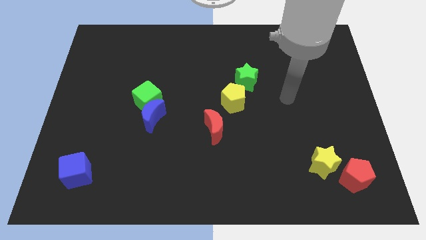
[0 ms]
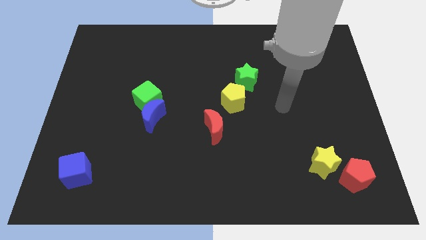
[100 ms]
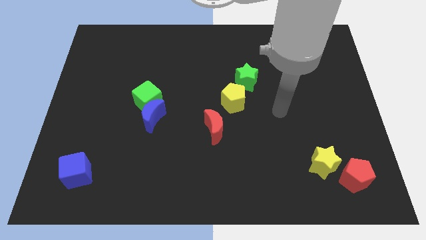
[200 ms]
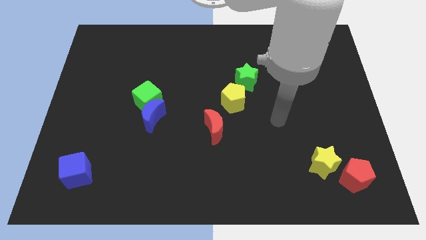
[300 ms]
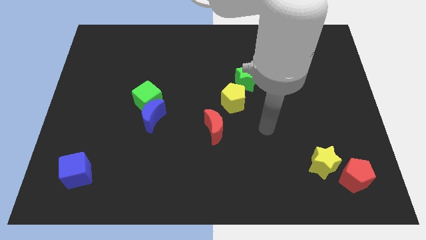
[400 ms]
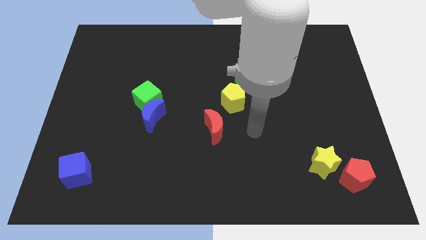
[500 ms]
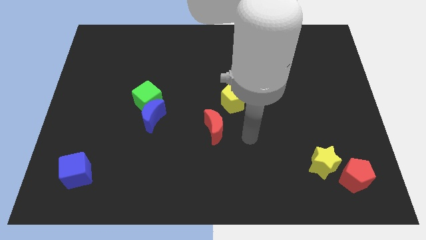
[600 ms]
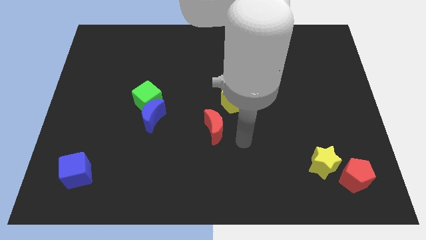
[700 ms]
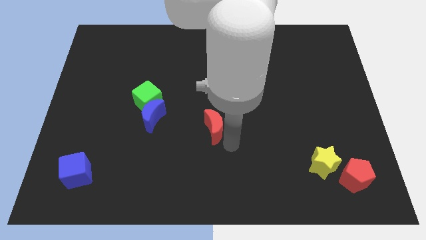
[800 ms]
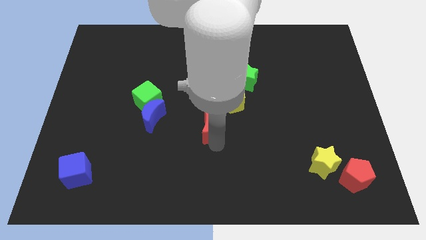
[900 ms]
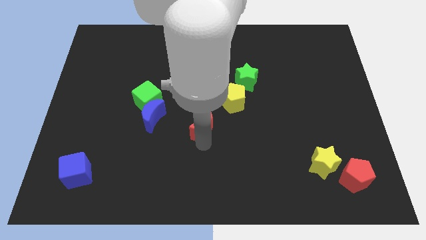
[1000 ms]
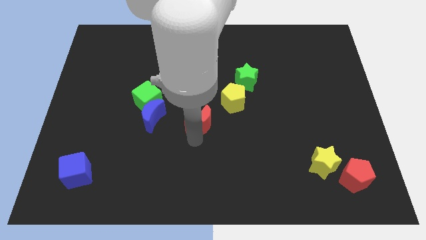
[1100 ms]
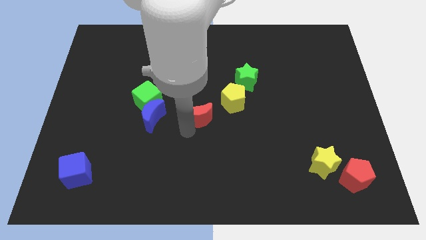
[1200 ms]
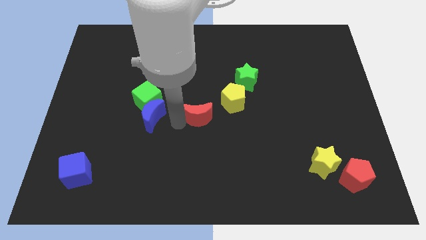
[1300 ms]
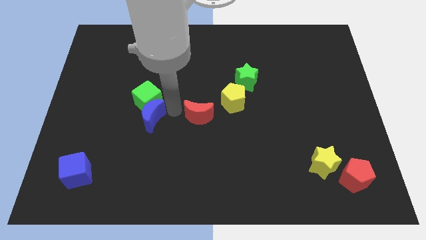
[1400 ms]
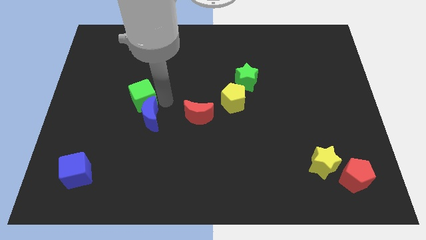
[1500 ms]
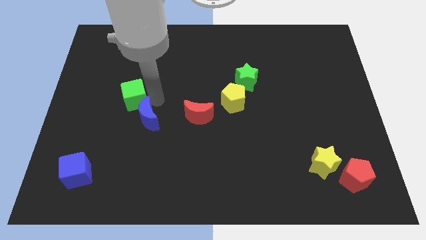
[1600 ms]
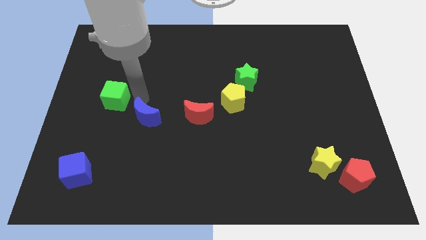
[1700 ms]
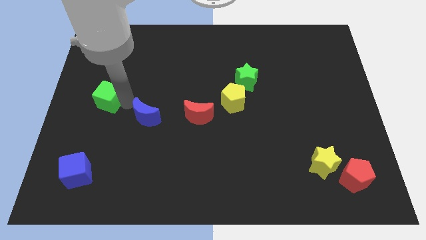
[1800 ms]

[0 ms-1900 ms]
move the blue moon away from the green cube

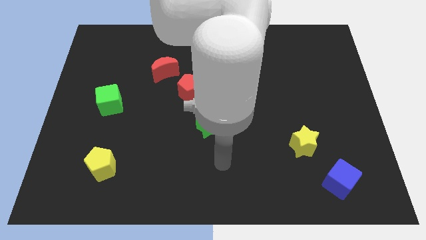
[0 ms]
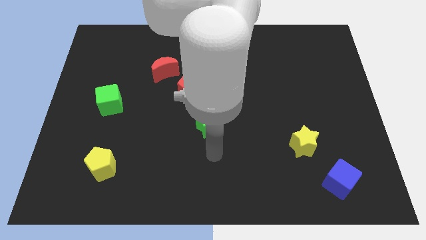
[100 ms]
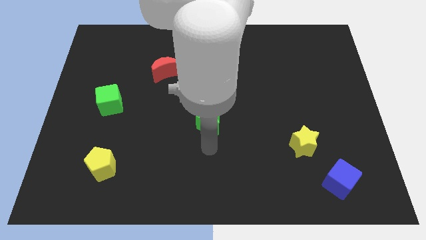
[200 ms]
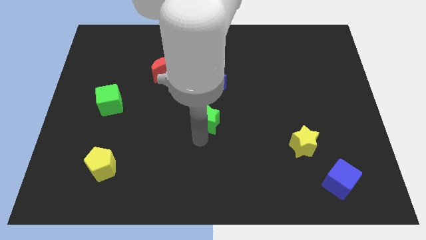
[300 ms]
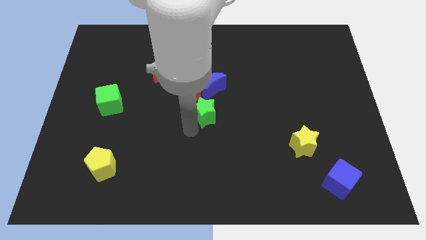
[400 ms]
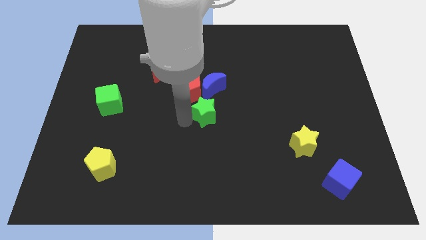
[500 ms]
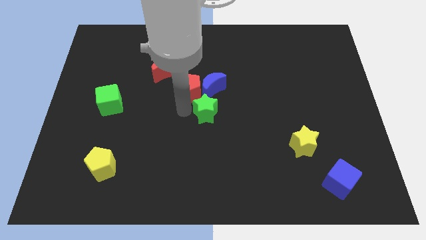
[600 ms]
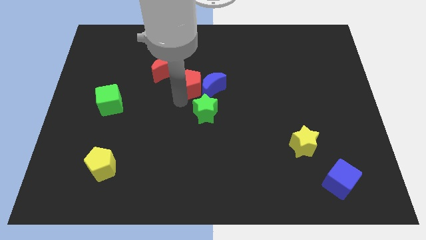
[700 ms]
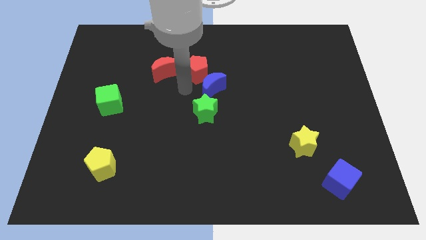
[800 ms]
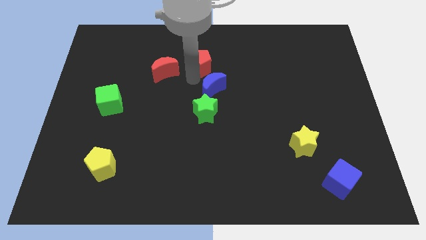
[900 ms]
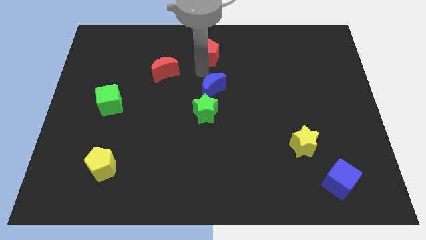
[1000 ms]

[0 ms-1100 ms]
pull the blue moon apart from the red pentagon

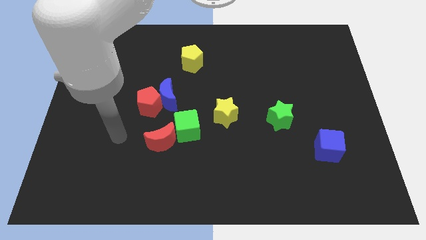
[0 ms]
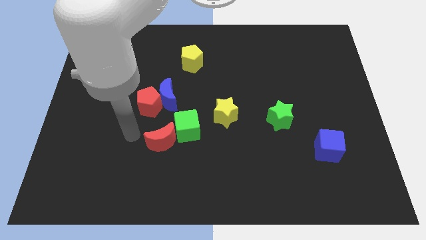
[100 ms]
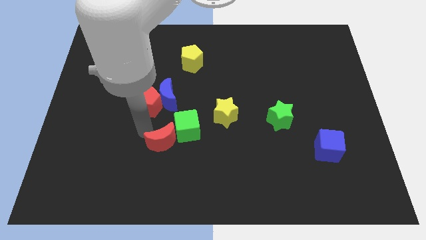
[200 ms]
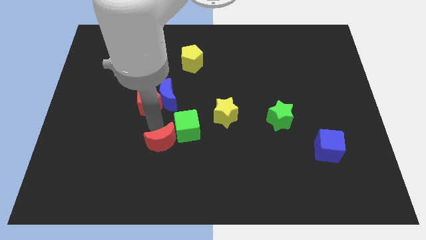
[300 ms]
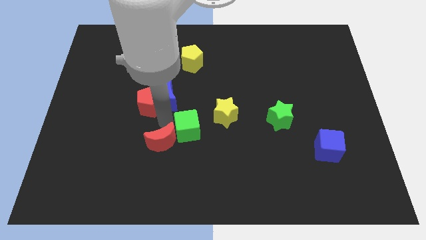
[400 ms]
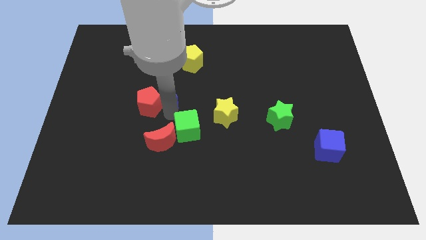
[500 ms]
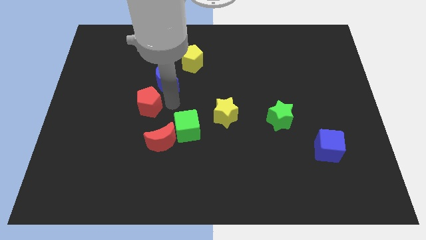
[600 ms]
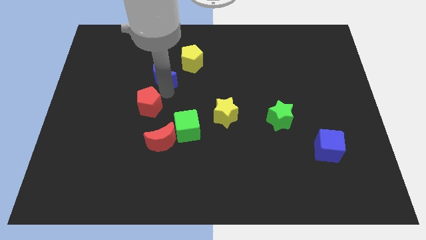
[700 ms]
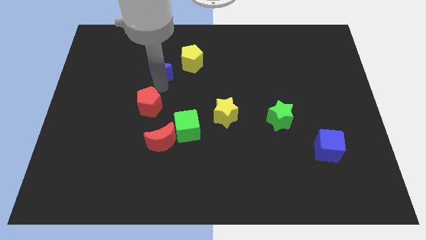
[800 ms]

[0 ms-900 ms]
move the red pentagon away from the blue moon

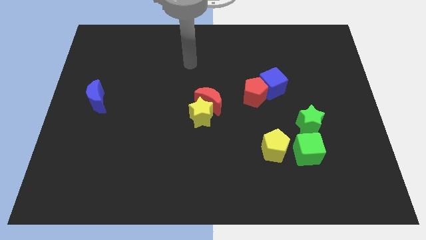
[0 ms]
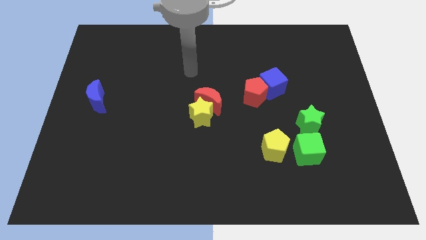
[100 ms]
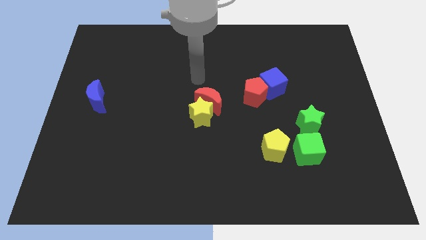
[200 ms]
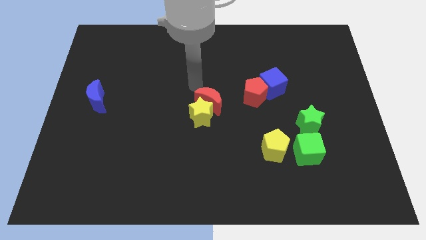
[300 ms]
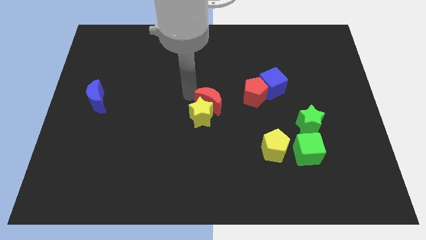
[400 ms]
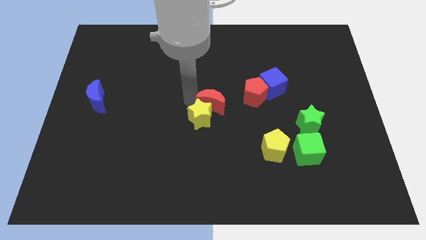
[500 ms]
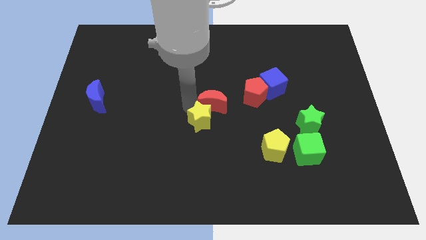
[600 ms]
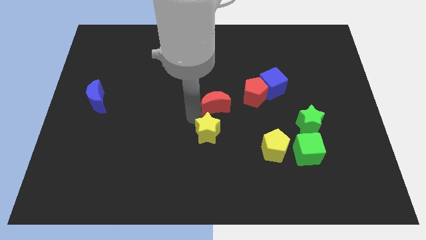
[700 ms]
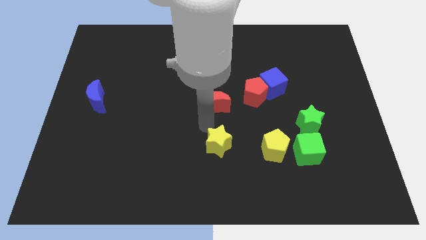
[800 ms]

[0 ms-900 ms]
move the red moon away from the yellow star

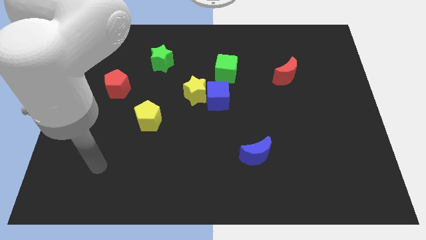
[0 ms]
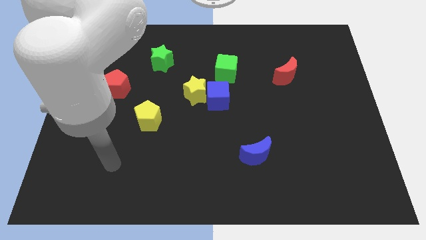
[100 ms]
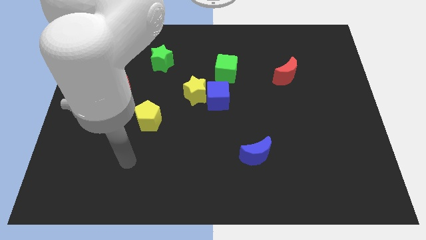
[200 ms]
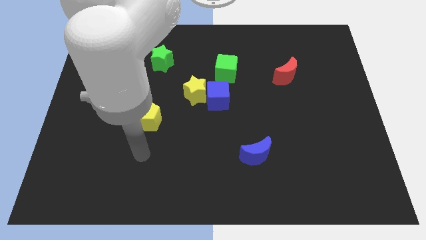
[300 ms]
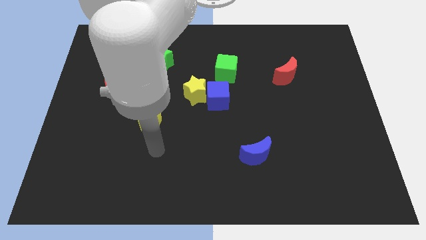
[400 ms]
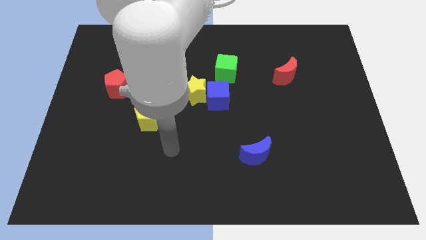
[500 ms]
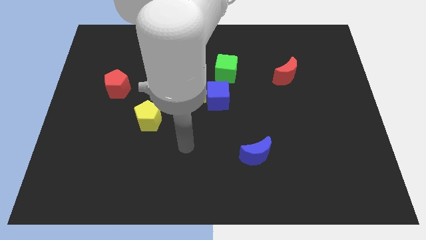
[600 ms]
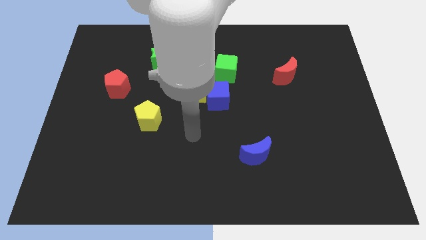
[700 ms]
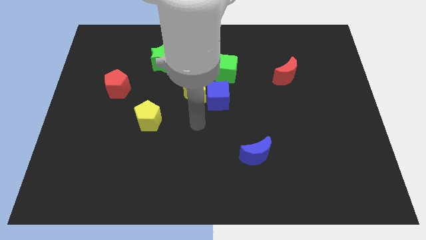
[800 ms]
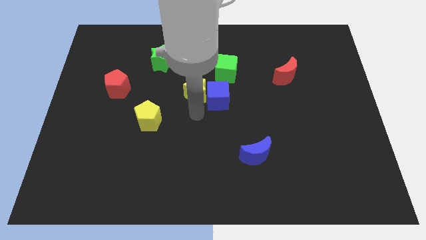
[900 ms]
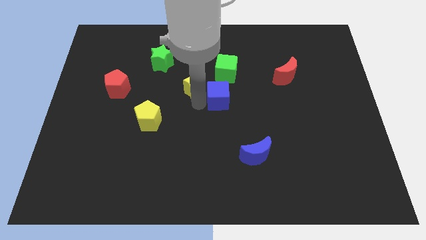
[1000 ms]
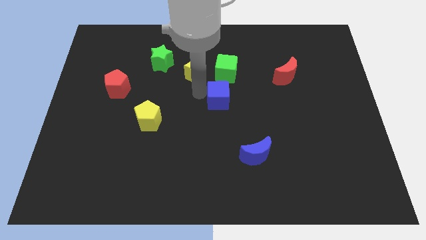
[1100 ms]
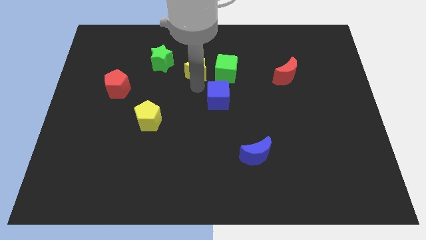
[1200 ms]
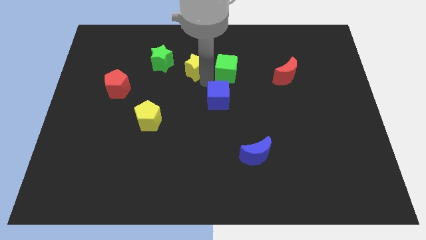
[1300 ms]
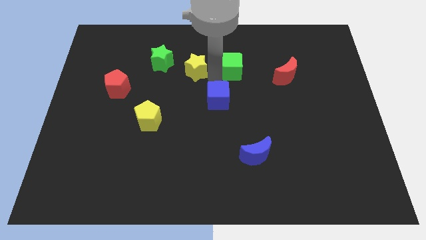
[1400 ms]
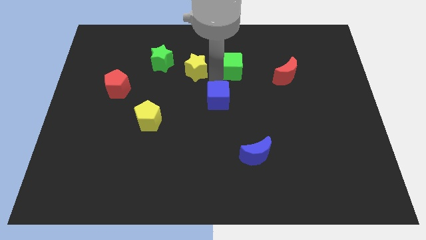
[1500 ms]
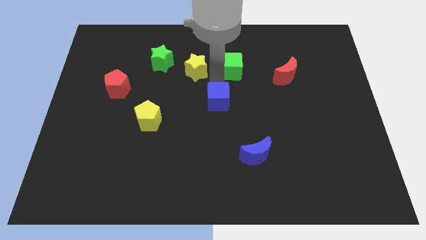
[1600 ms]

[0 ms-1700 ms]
separate the blue cube from the yellow star and green cube

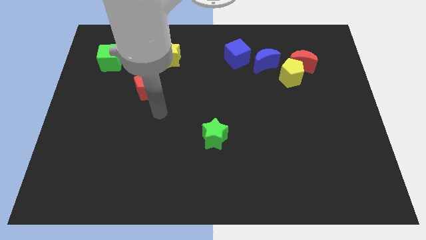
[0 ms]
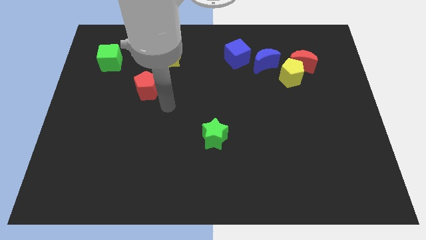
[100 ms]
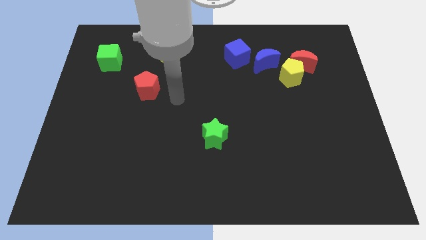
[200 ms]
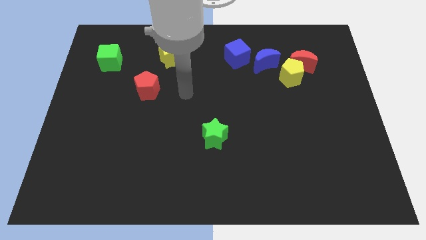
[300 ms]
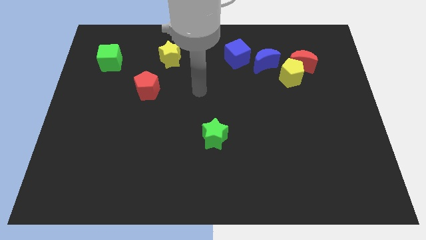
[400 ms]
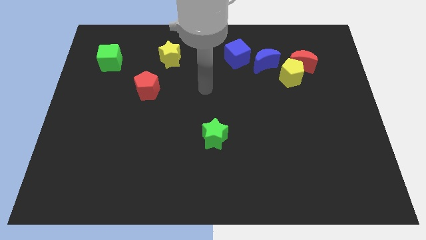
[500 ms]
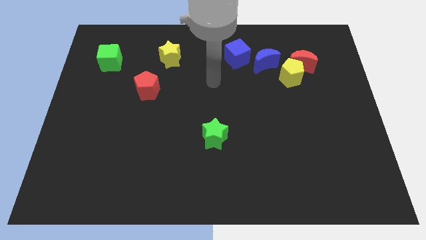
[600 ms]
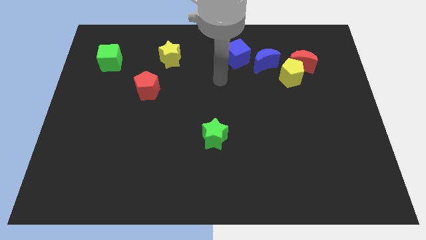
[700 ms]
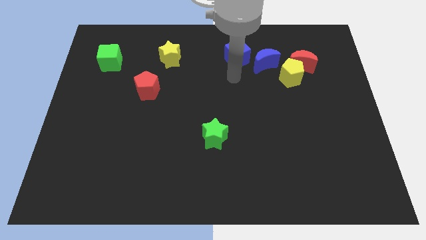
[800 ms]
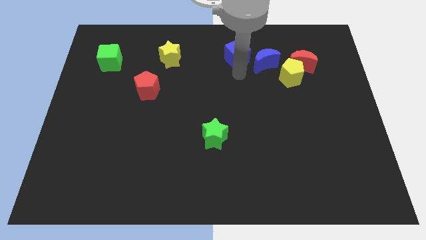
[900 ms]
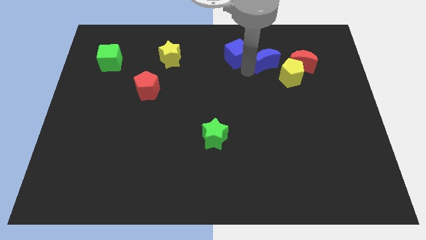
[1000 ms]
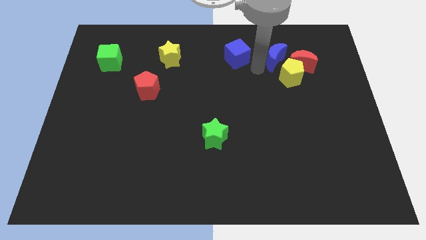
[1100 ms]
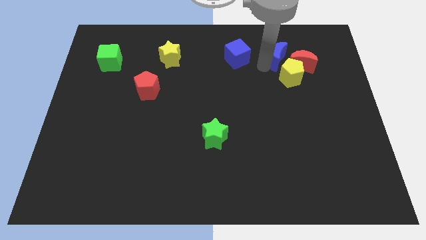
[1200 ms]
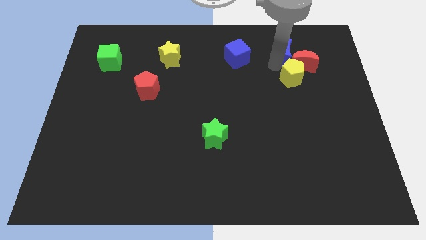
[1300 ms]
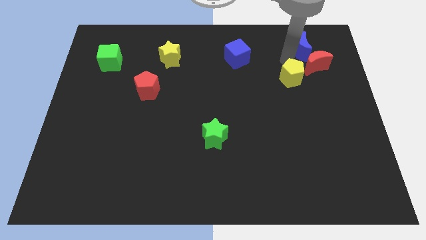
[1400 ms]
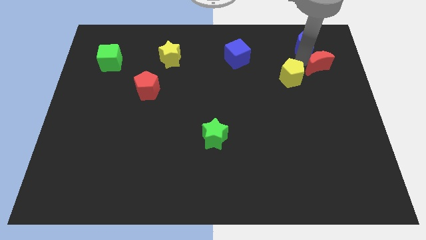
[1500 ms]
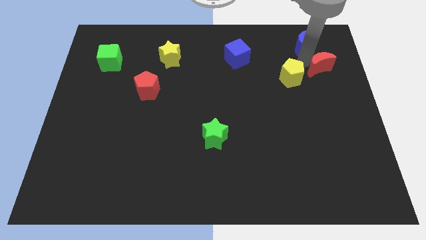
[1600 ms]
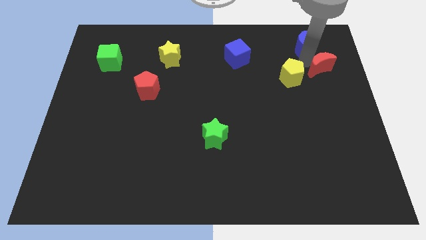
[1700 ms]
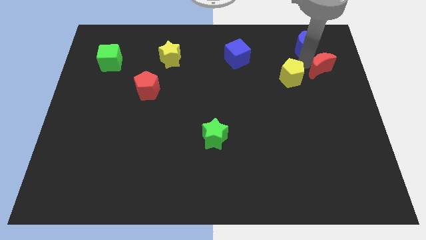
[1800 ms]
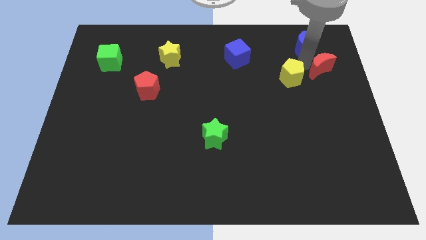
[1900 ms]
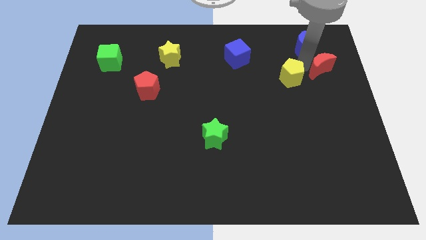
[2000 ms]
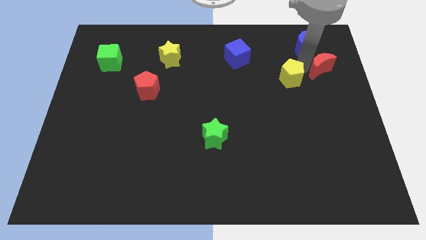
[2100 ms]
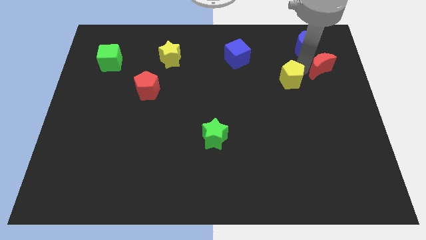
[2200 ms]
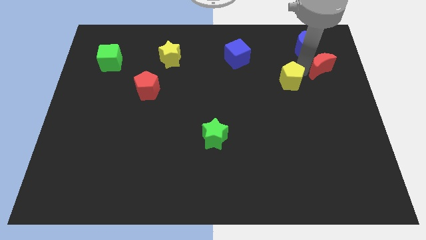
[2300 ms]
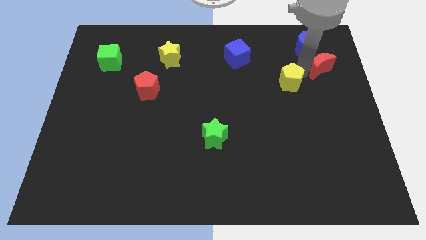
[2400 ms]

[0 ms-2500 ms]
separate the yellow pentagon from the red moon and blue moon

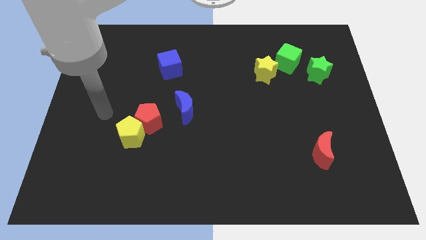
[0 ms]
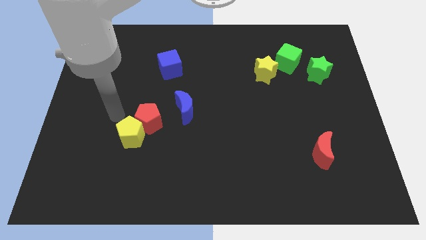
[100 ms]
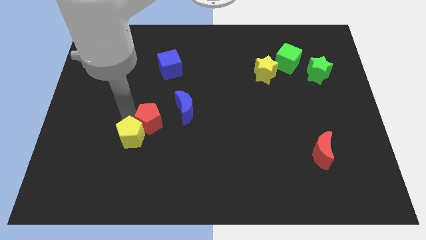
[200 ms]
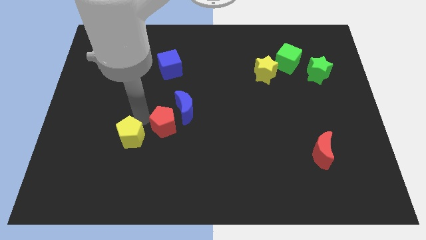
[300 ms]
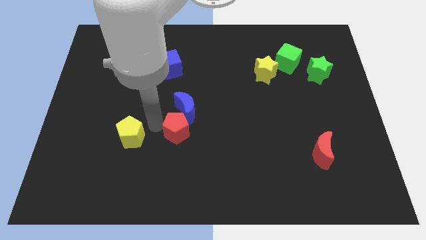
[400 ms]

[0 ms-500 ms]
pull the yellow pentagon apart from the red pentagon
